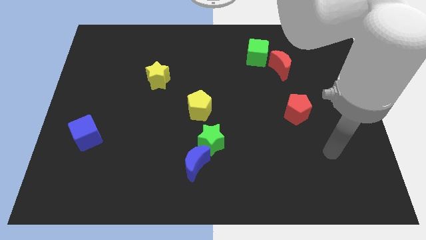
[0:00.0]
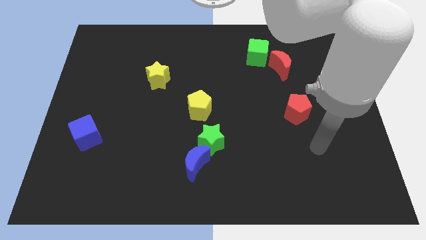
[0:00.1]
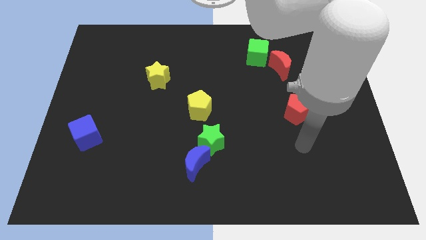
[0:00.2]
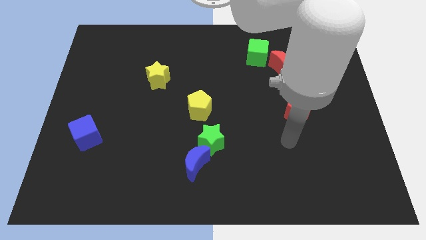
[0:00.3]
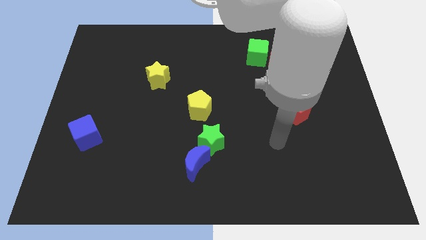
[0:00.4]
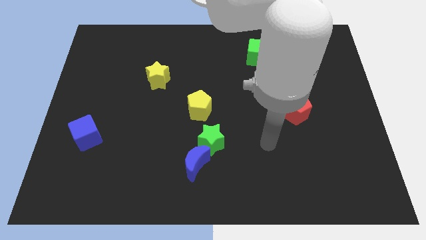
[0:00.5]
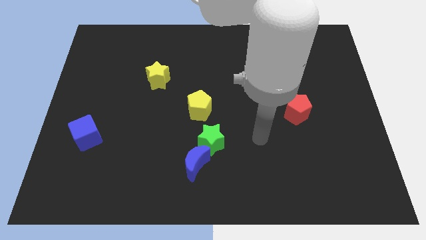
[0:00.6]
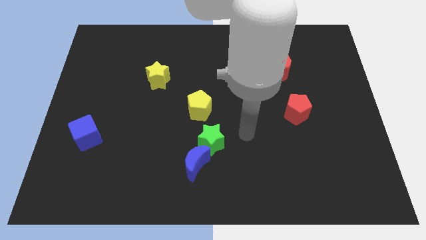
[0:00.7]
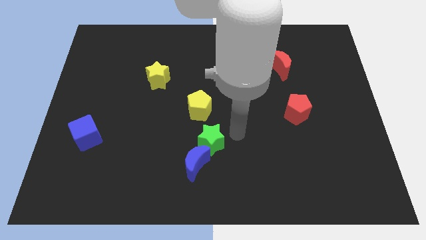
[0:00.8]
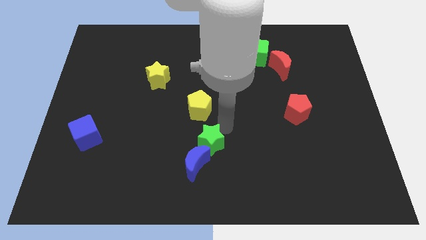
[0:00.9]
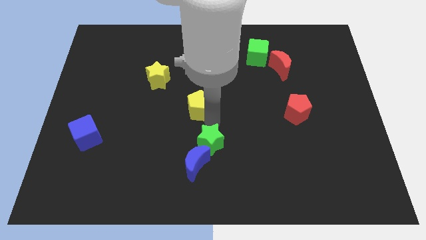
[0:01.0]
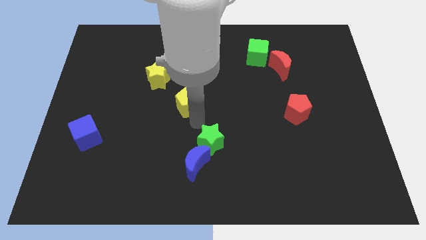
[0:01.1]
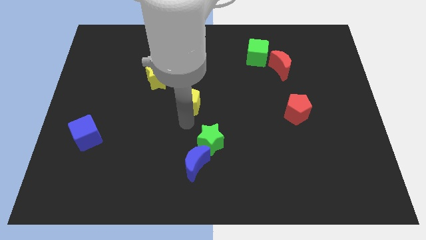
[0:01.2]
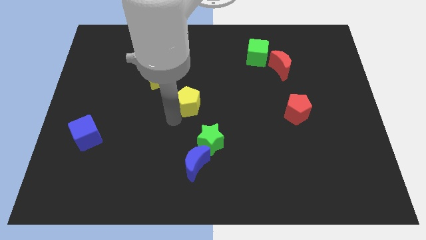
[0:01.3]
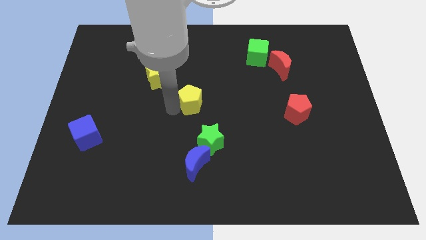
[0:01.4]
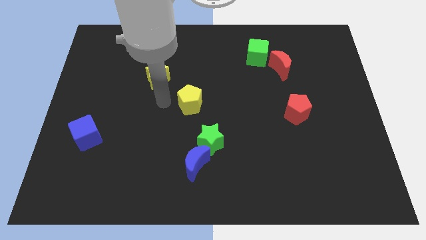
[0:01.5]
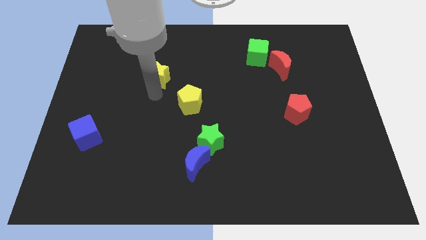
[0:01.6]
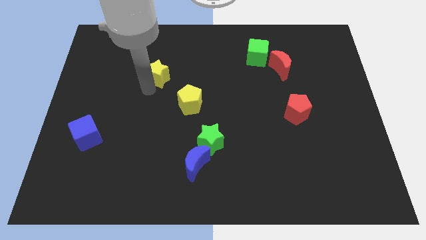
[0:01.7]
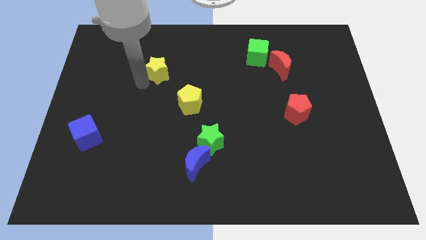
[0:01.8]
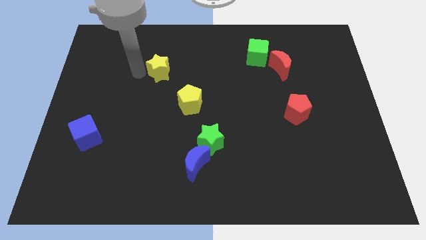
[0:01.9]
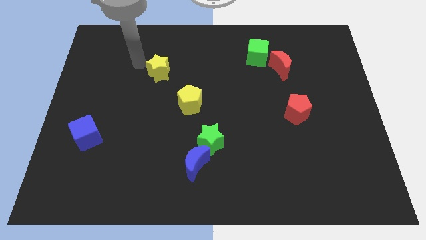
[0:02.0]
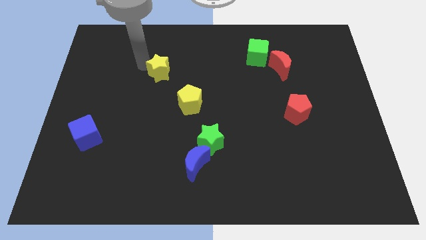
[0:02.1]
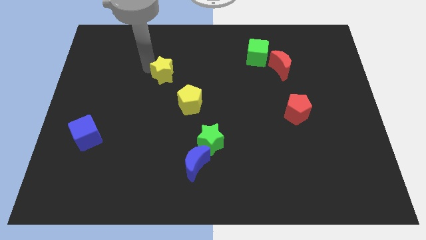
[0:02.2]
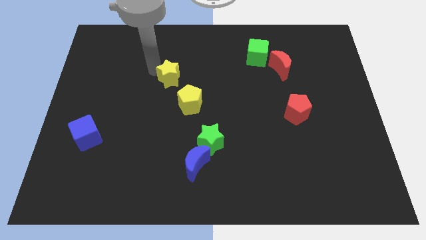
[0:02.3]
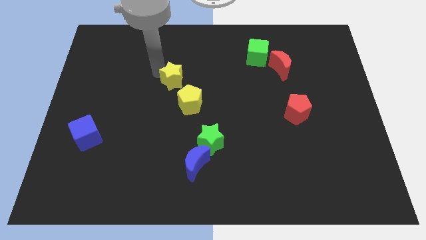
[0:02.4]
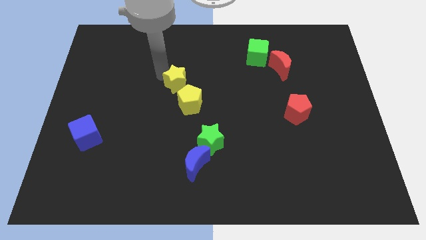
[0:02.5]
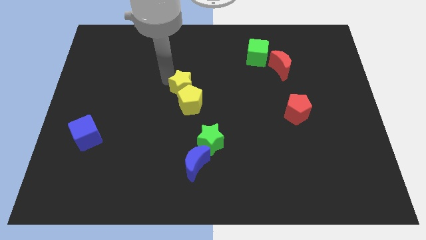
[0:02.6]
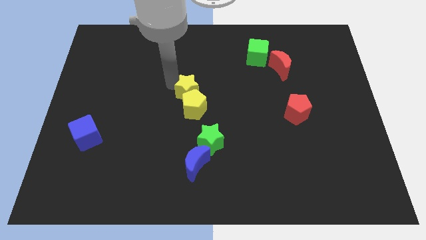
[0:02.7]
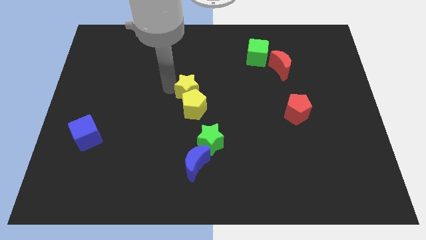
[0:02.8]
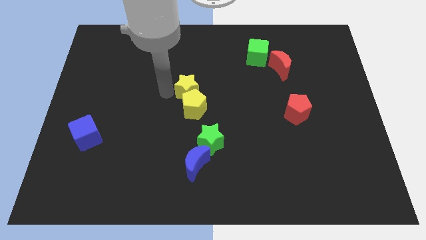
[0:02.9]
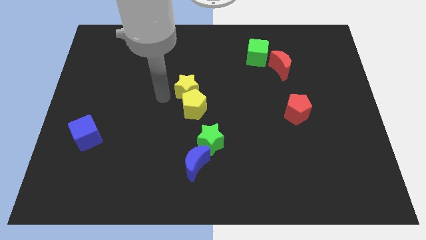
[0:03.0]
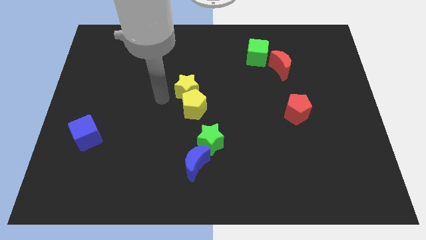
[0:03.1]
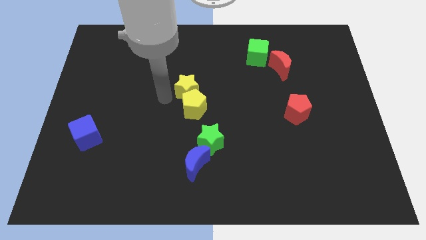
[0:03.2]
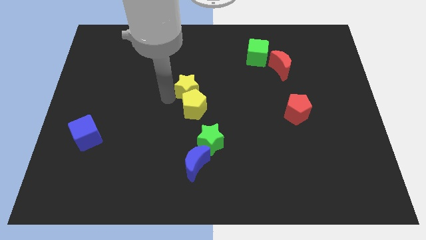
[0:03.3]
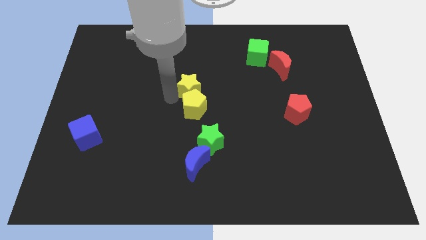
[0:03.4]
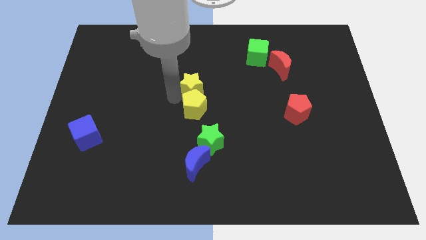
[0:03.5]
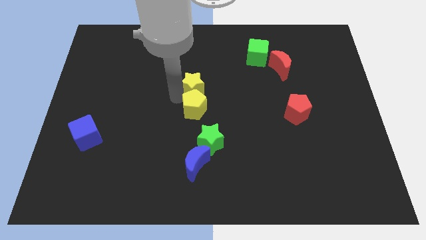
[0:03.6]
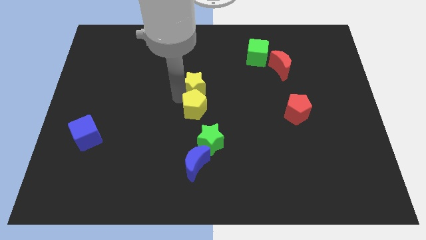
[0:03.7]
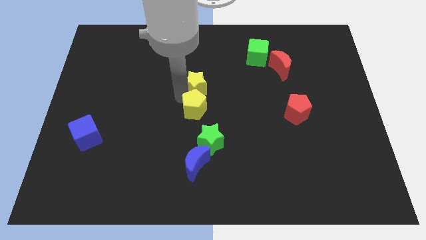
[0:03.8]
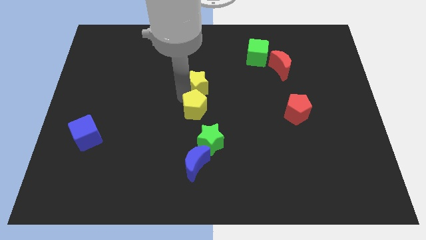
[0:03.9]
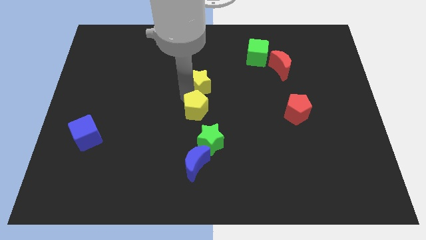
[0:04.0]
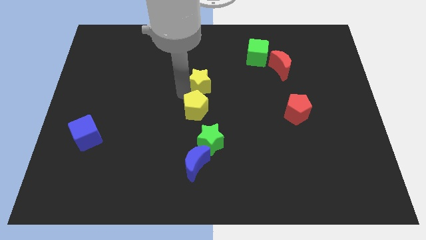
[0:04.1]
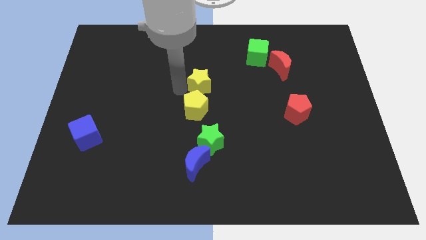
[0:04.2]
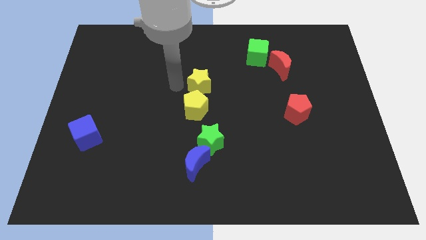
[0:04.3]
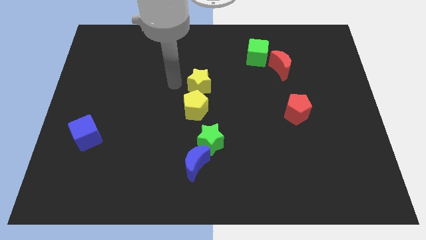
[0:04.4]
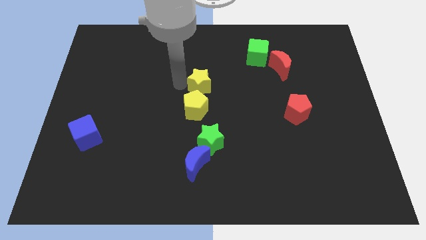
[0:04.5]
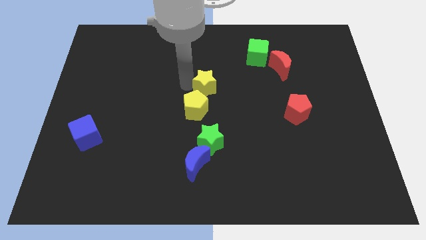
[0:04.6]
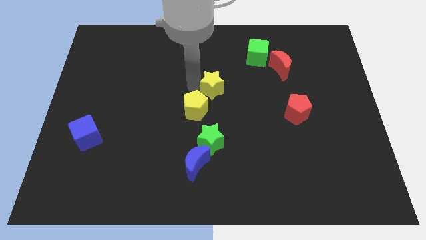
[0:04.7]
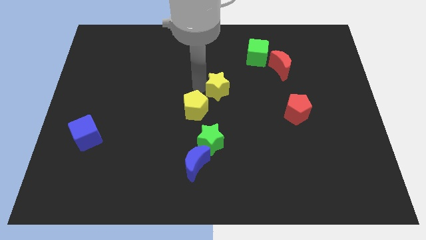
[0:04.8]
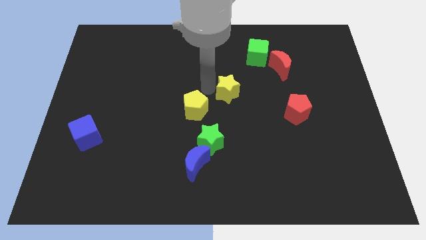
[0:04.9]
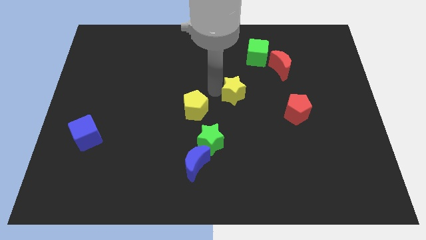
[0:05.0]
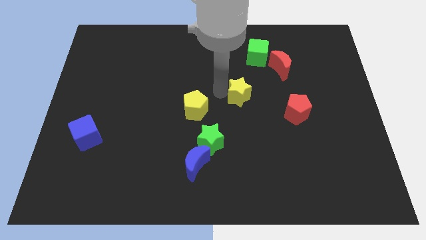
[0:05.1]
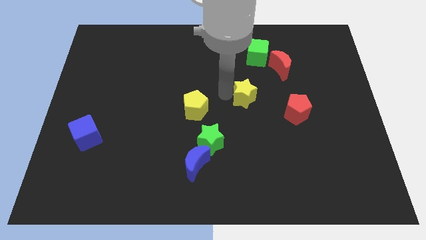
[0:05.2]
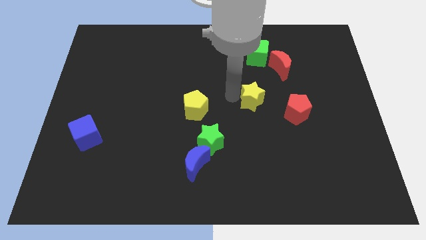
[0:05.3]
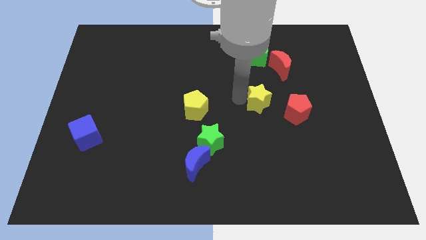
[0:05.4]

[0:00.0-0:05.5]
slide the yellow star to the top left side of the red pentagon

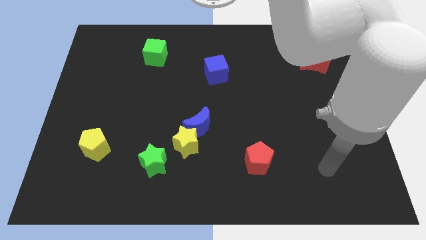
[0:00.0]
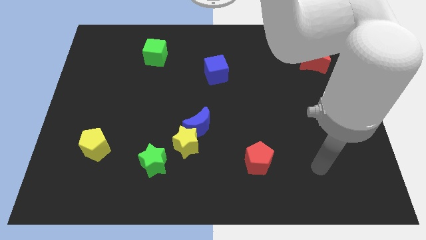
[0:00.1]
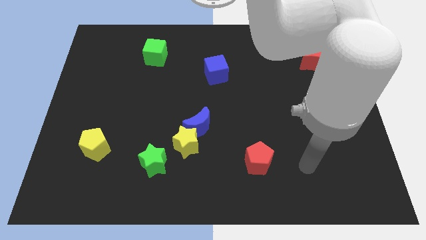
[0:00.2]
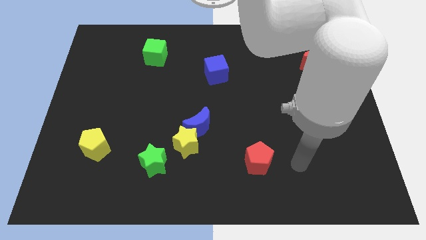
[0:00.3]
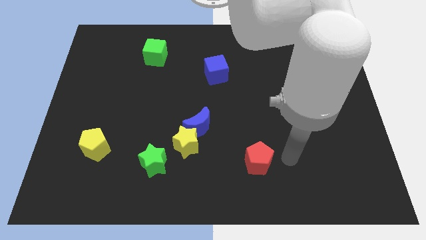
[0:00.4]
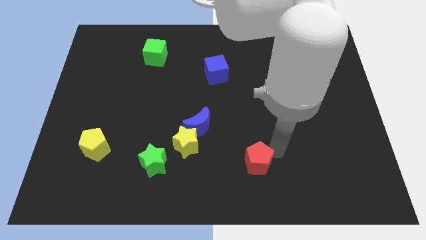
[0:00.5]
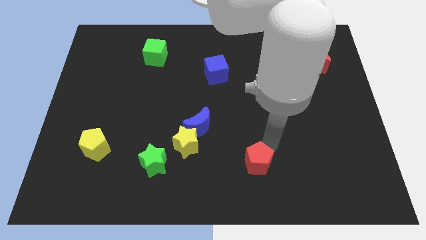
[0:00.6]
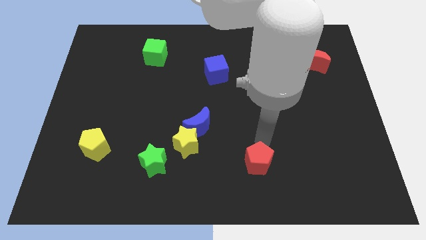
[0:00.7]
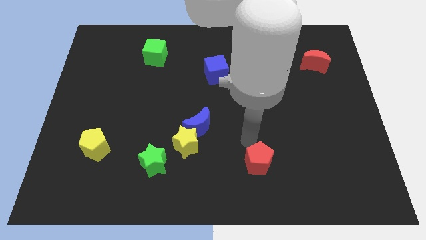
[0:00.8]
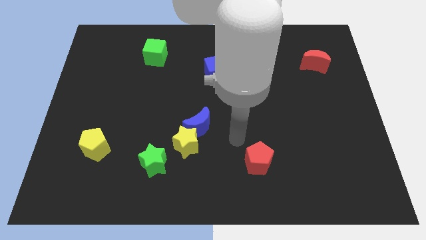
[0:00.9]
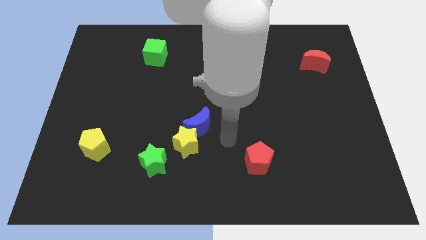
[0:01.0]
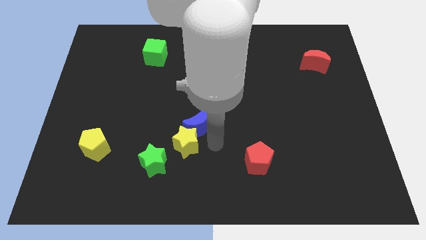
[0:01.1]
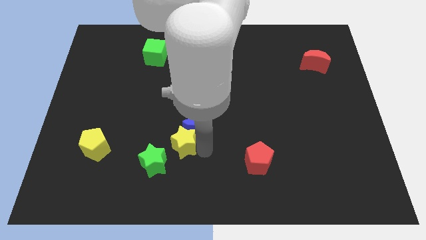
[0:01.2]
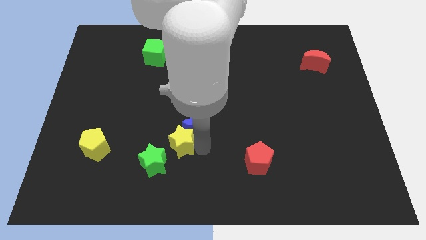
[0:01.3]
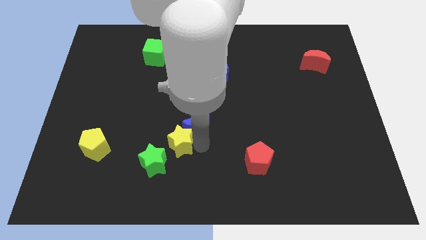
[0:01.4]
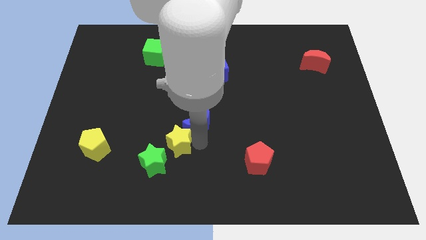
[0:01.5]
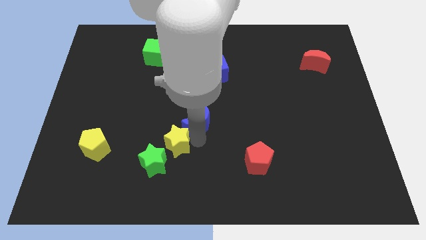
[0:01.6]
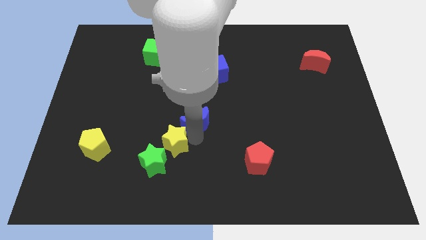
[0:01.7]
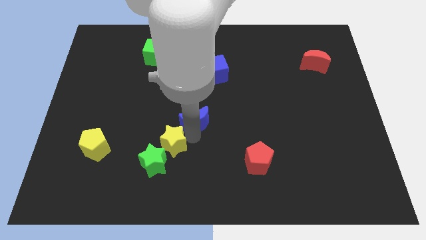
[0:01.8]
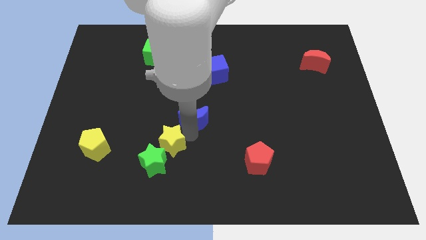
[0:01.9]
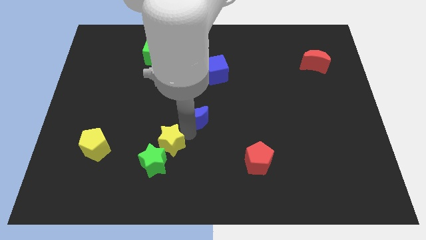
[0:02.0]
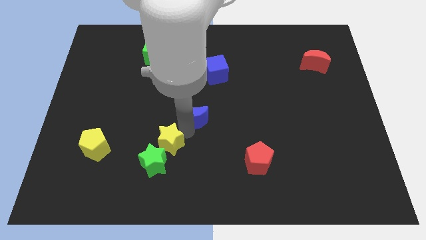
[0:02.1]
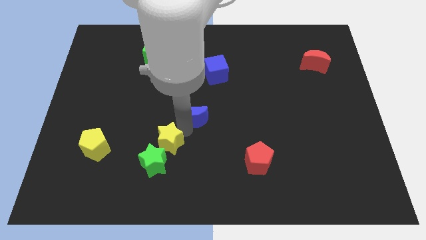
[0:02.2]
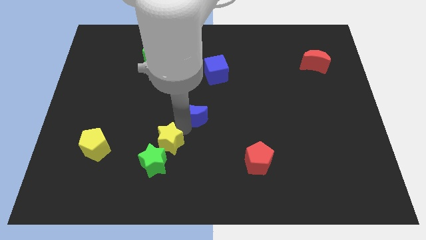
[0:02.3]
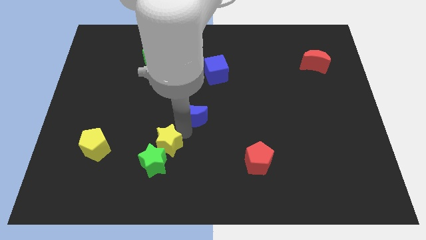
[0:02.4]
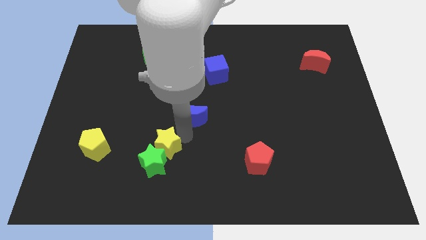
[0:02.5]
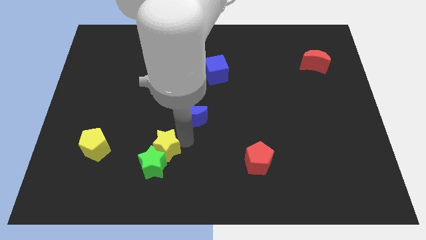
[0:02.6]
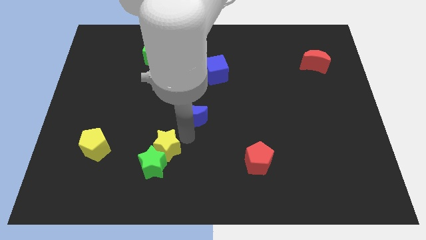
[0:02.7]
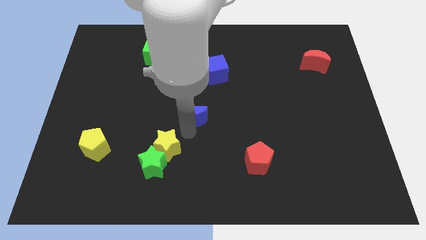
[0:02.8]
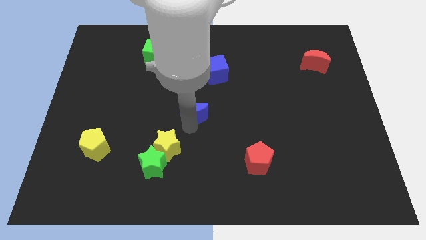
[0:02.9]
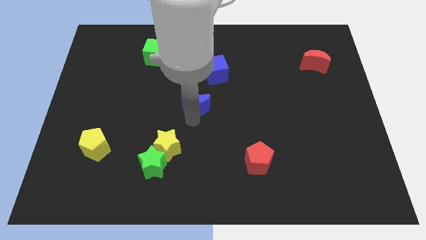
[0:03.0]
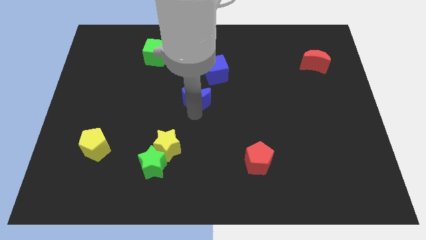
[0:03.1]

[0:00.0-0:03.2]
put the blue moon to the bottom left side of the blue cube
